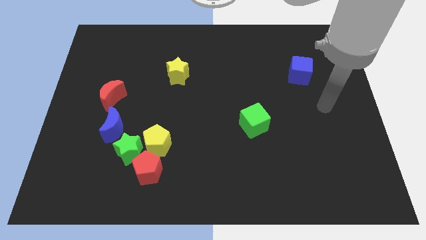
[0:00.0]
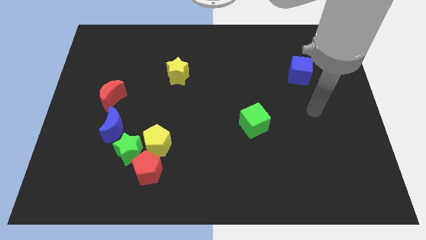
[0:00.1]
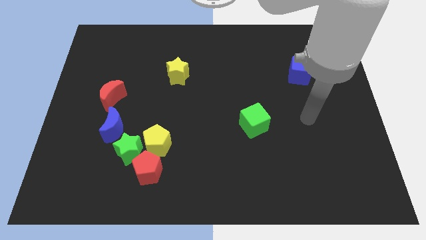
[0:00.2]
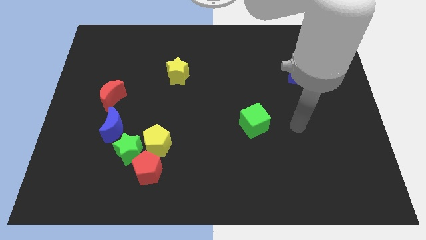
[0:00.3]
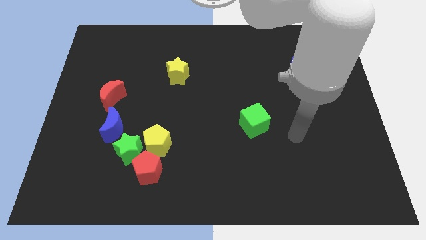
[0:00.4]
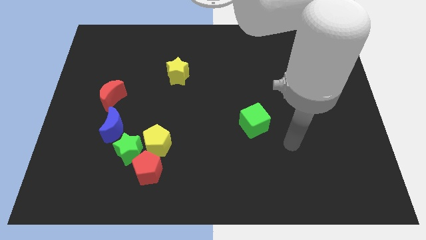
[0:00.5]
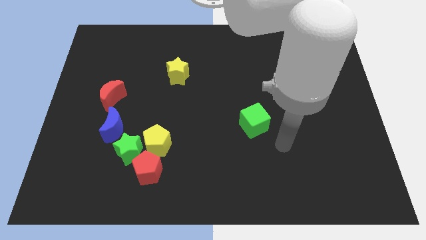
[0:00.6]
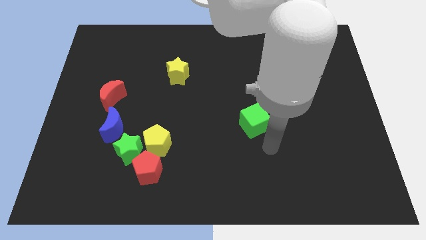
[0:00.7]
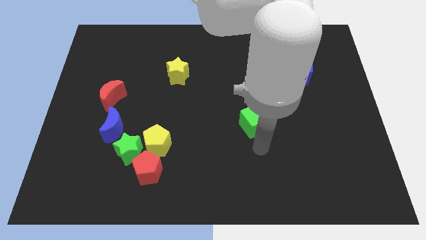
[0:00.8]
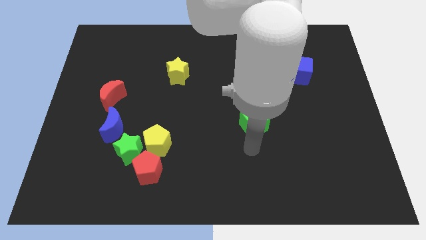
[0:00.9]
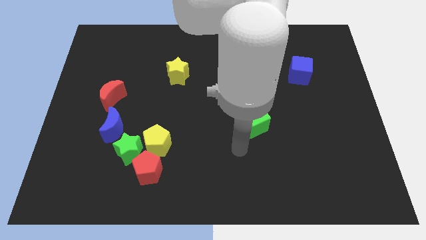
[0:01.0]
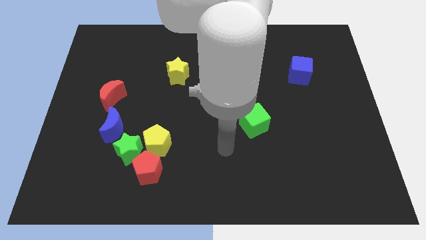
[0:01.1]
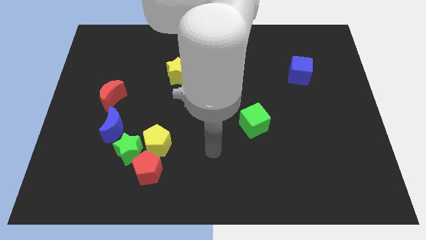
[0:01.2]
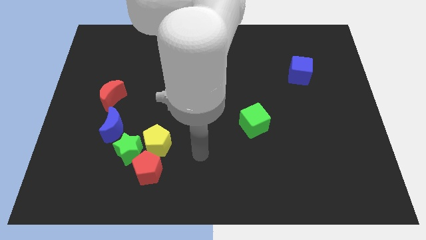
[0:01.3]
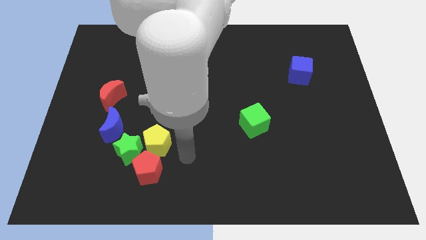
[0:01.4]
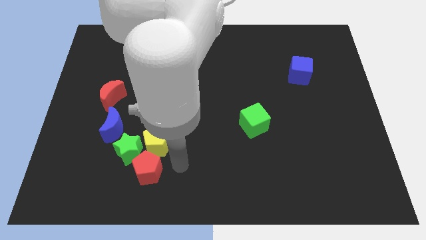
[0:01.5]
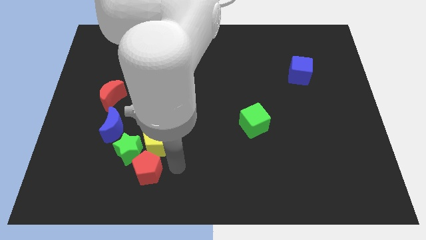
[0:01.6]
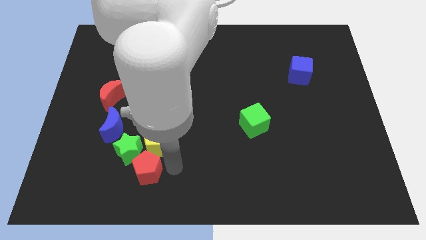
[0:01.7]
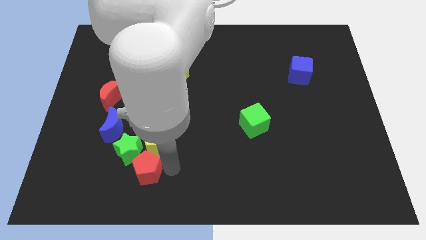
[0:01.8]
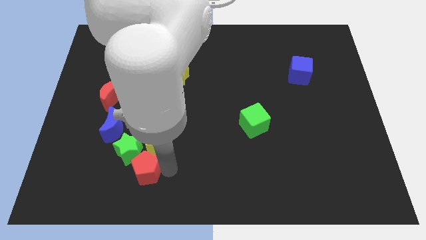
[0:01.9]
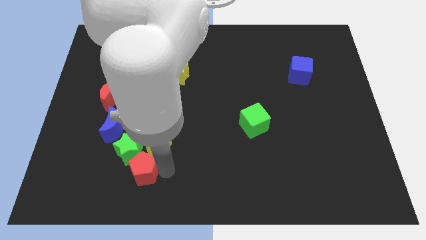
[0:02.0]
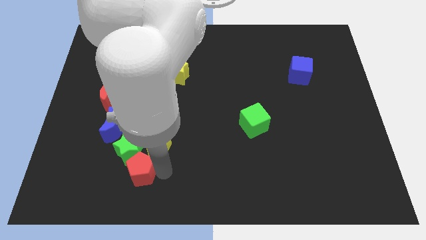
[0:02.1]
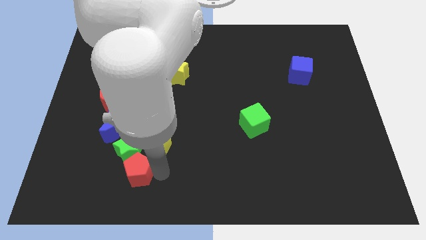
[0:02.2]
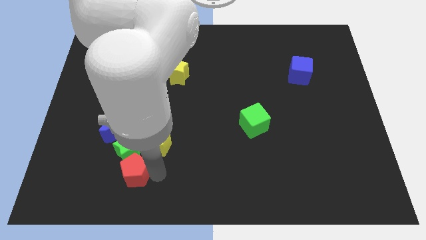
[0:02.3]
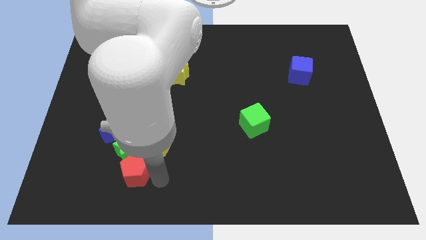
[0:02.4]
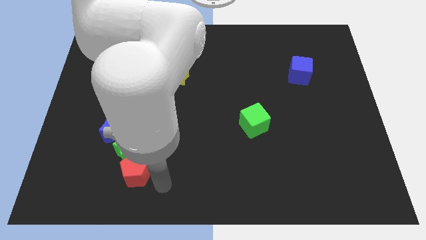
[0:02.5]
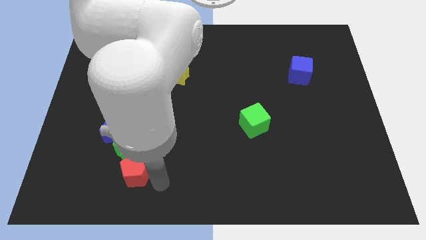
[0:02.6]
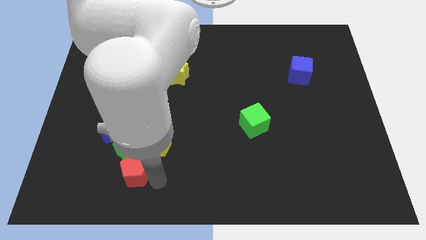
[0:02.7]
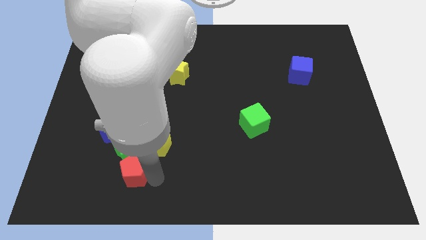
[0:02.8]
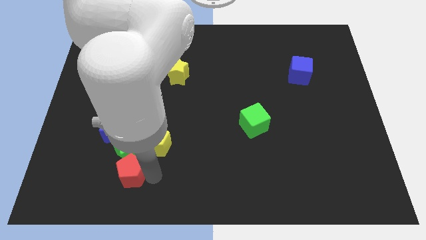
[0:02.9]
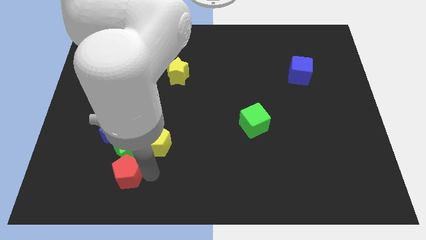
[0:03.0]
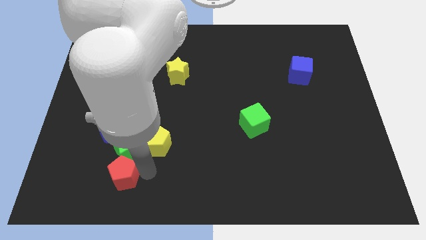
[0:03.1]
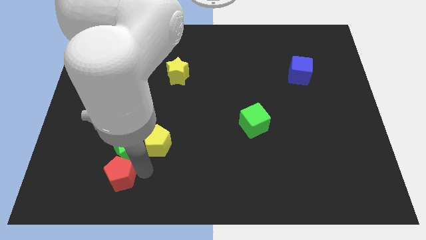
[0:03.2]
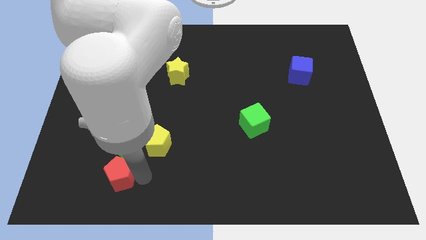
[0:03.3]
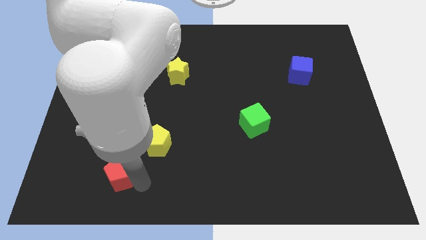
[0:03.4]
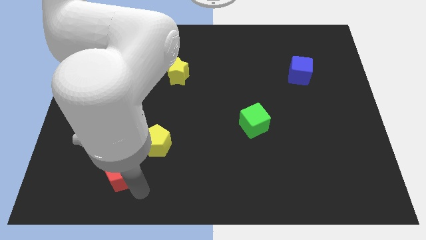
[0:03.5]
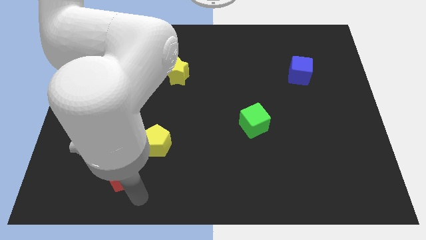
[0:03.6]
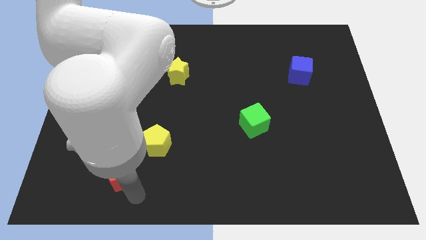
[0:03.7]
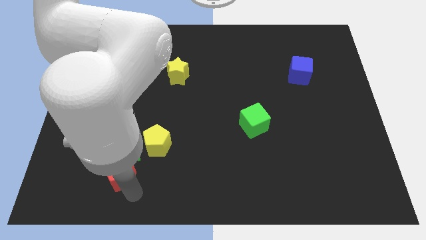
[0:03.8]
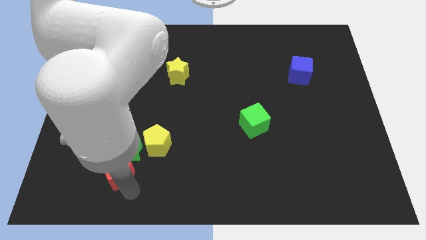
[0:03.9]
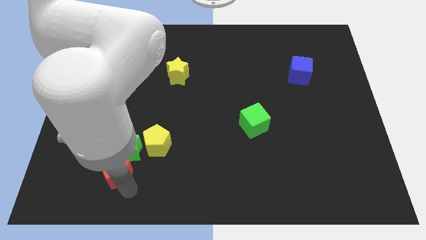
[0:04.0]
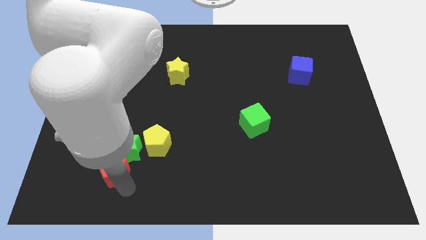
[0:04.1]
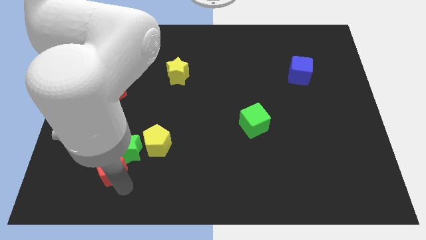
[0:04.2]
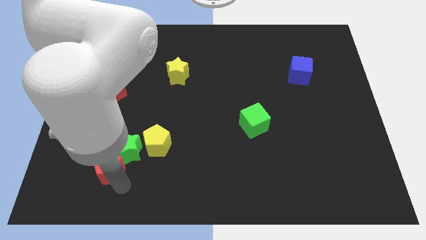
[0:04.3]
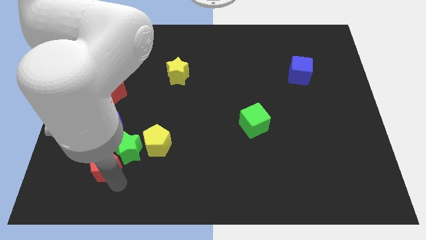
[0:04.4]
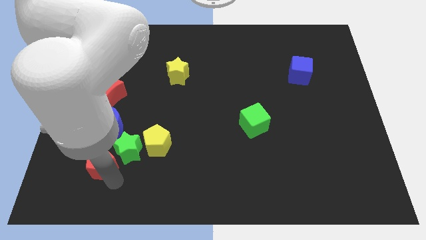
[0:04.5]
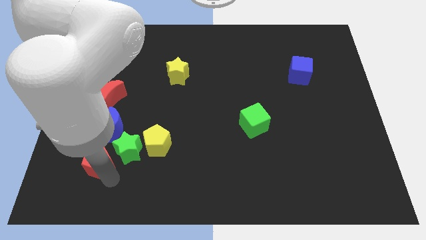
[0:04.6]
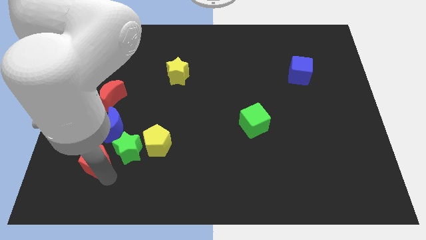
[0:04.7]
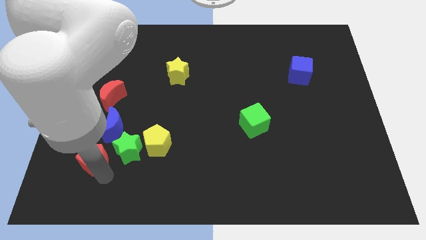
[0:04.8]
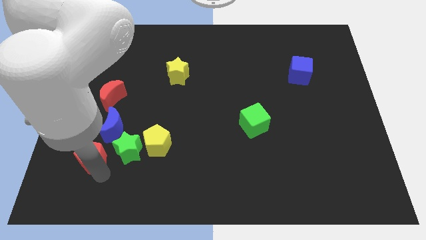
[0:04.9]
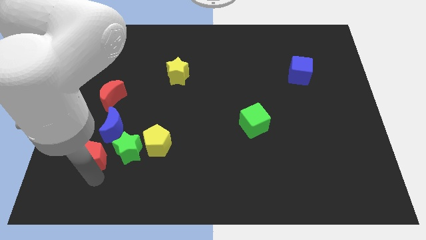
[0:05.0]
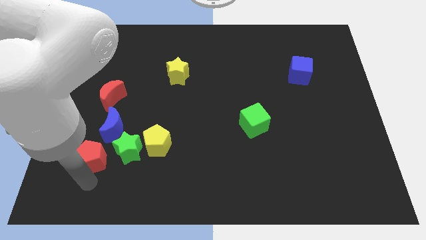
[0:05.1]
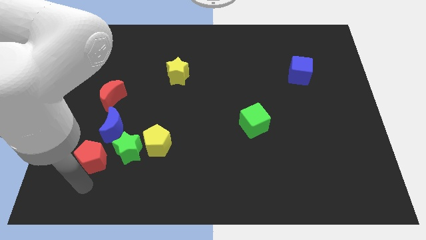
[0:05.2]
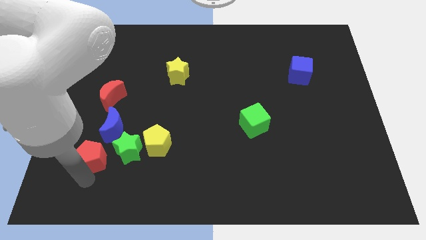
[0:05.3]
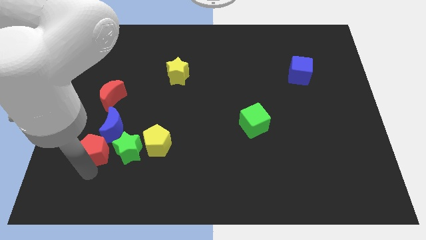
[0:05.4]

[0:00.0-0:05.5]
move the red pentagon to the bottom of the red moon

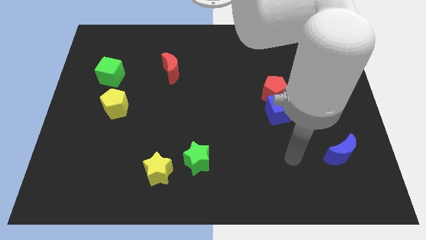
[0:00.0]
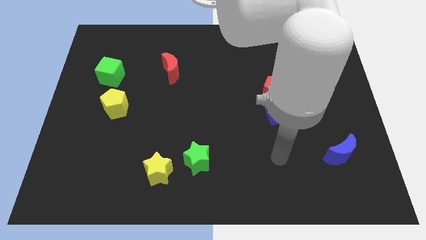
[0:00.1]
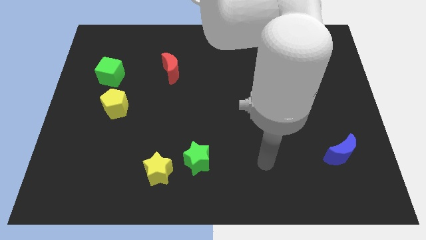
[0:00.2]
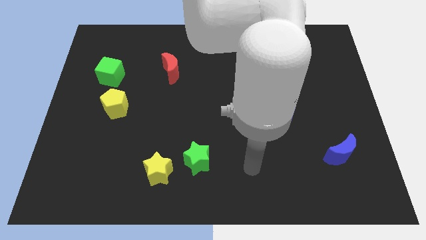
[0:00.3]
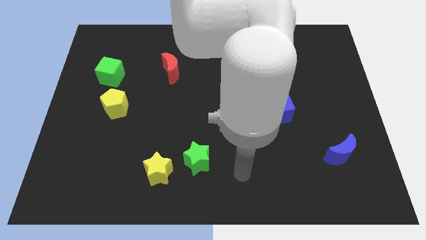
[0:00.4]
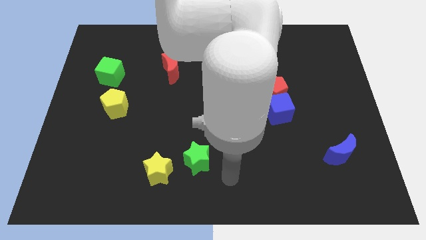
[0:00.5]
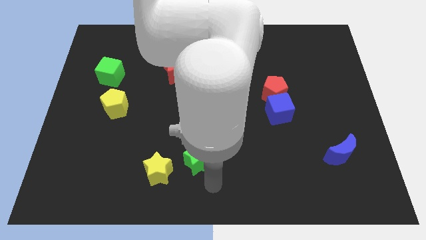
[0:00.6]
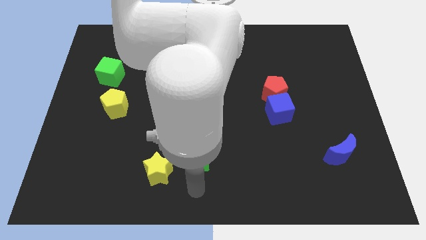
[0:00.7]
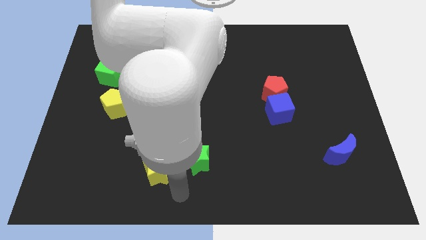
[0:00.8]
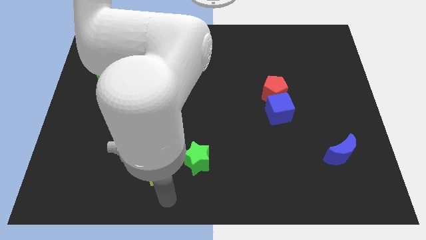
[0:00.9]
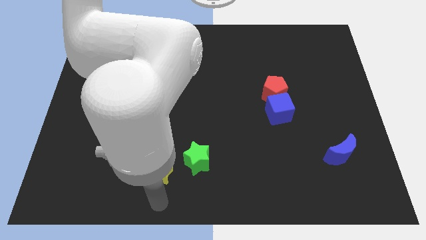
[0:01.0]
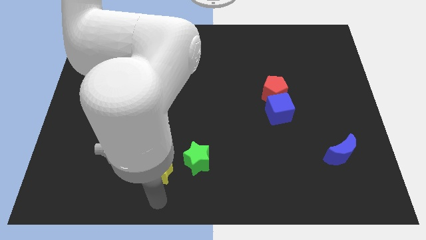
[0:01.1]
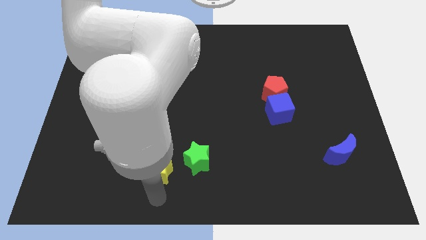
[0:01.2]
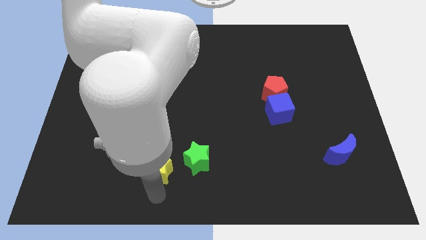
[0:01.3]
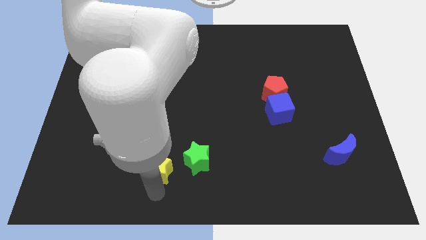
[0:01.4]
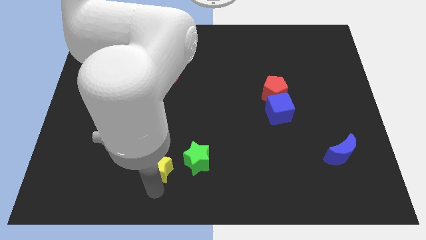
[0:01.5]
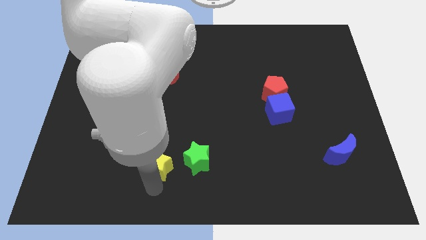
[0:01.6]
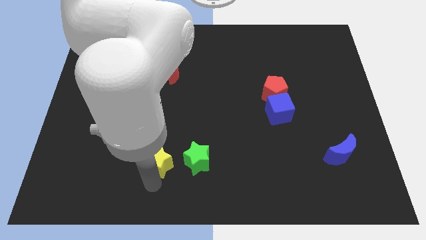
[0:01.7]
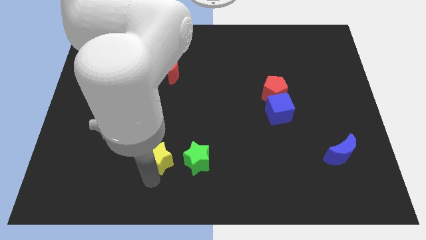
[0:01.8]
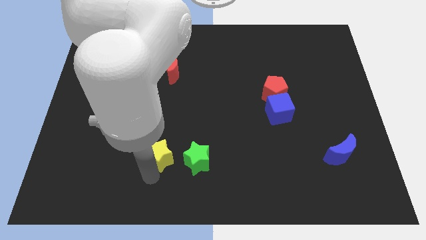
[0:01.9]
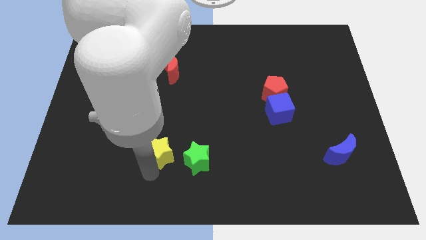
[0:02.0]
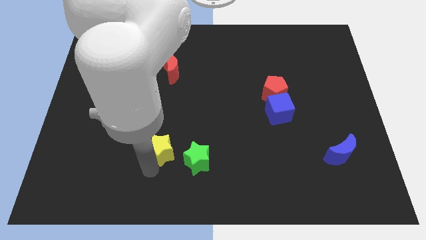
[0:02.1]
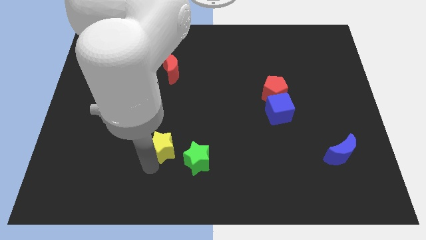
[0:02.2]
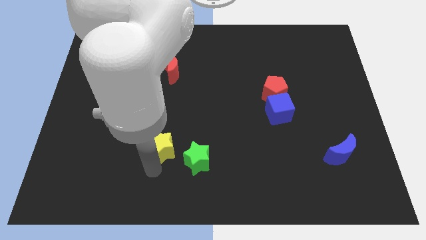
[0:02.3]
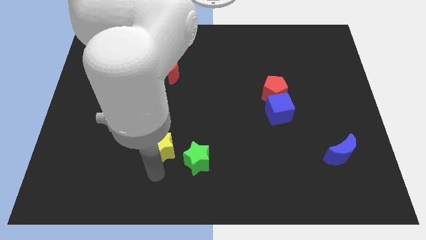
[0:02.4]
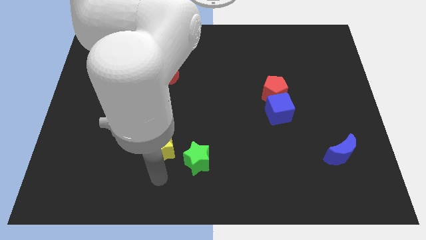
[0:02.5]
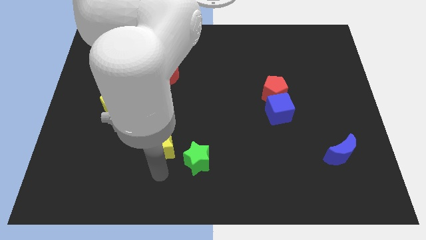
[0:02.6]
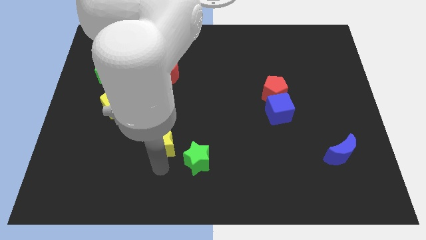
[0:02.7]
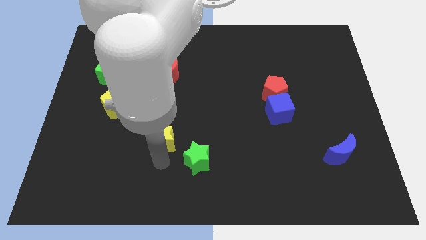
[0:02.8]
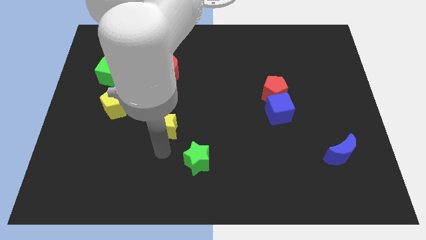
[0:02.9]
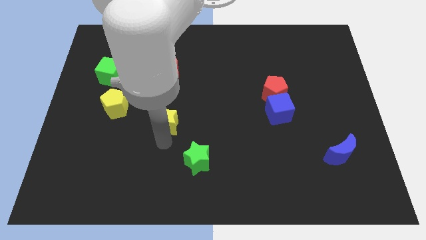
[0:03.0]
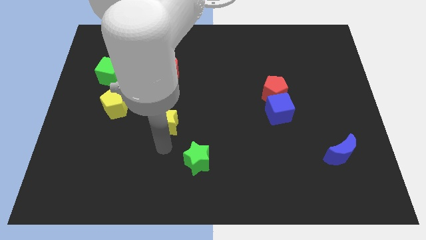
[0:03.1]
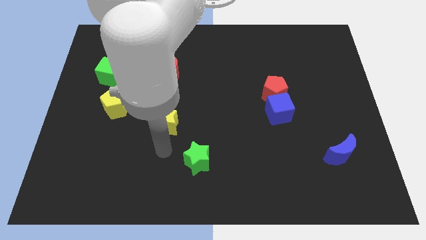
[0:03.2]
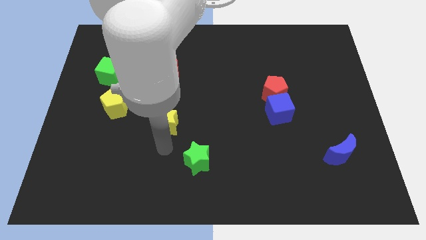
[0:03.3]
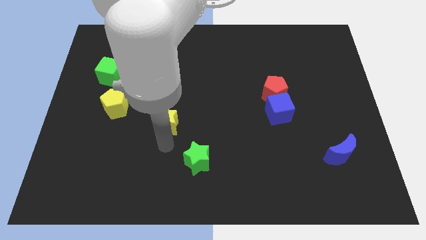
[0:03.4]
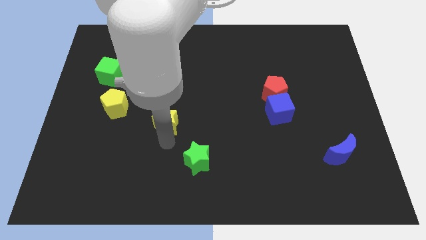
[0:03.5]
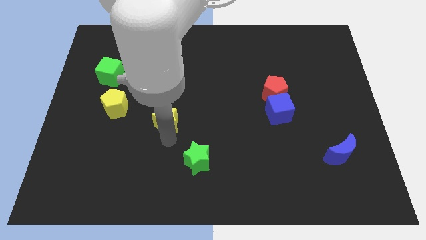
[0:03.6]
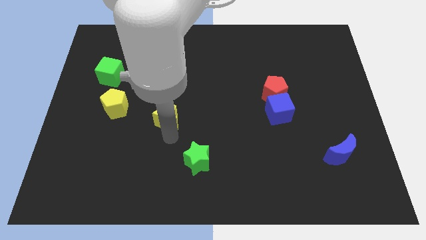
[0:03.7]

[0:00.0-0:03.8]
move the yellow star to the bottom side of the red moon
